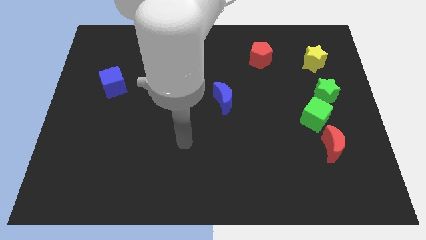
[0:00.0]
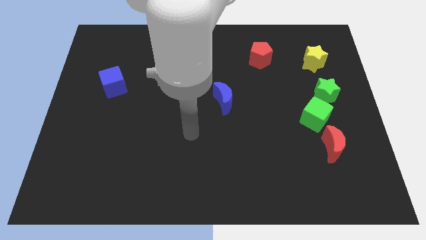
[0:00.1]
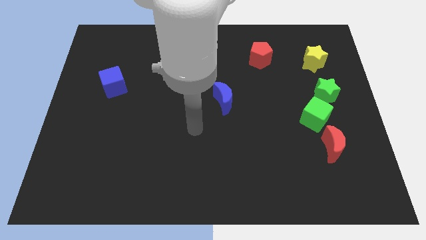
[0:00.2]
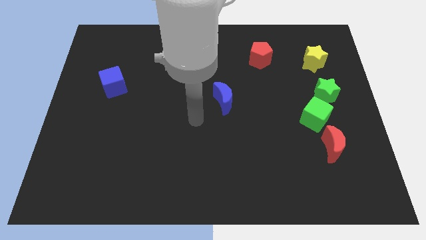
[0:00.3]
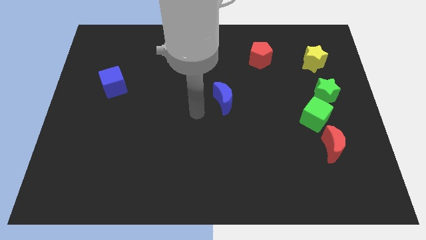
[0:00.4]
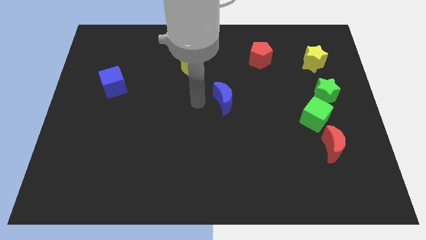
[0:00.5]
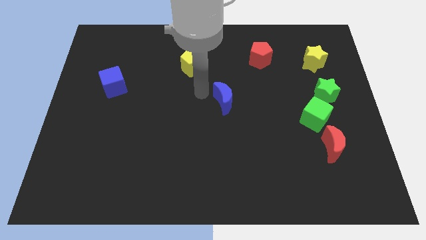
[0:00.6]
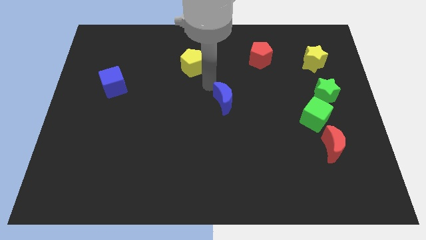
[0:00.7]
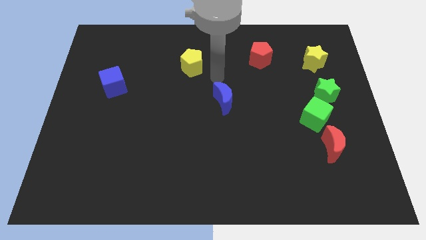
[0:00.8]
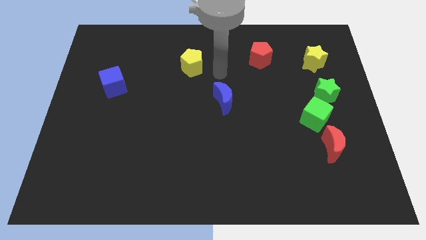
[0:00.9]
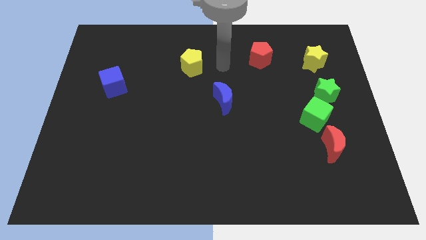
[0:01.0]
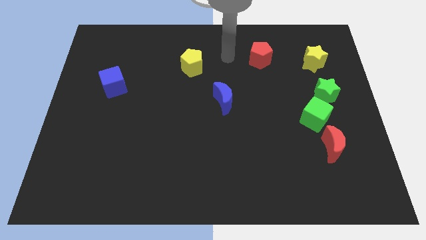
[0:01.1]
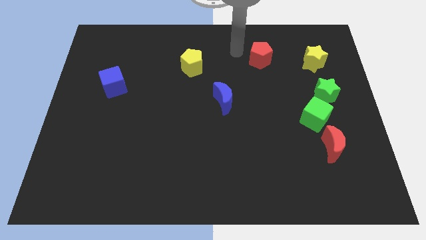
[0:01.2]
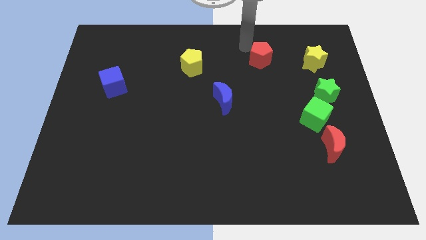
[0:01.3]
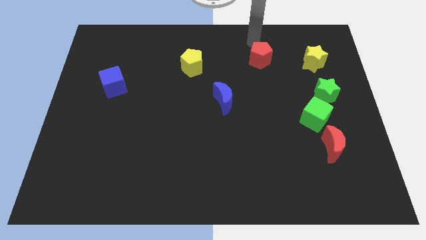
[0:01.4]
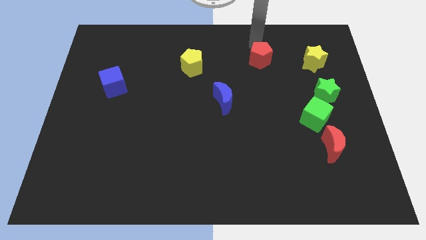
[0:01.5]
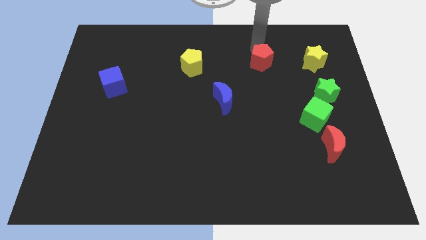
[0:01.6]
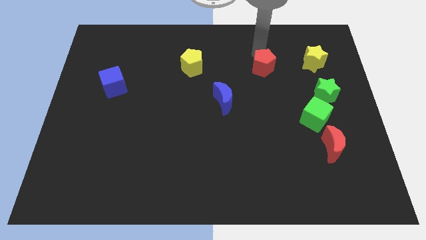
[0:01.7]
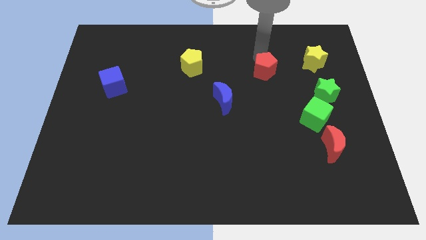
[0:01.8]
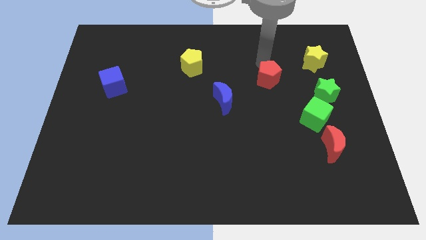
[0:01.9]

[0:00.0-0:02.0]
slide the red pentagon downwards slightly

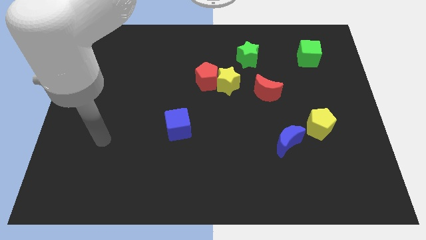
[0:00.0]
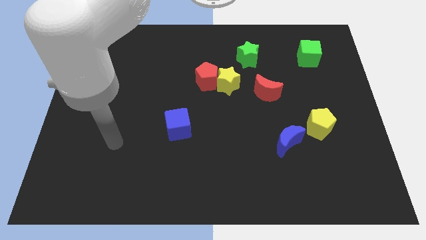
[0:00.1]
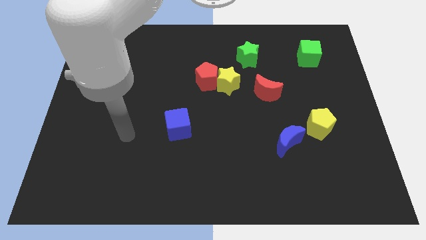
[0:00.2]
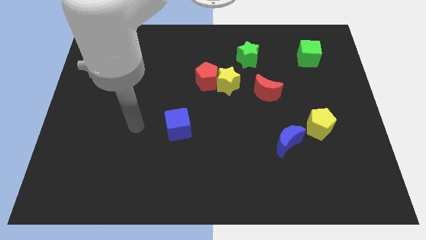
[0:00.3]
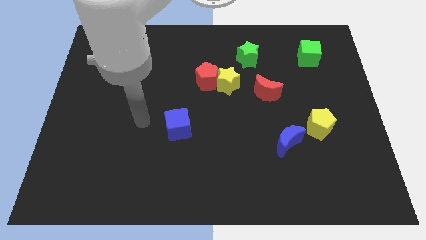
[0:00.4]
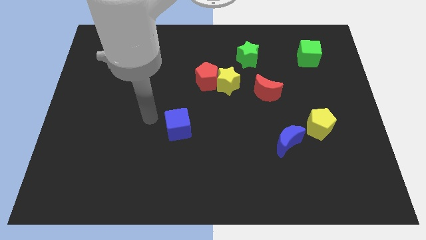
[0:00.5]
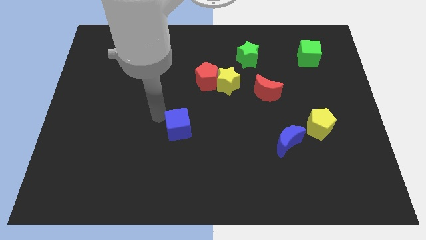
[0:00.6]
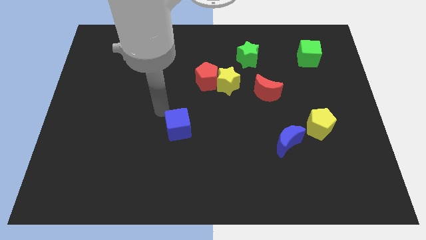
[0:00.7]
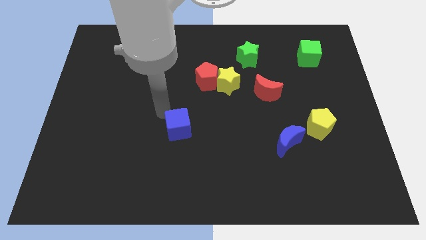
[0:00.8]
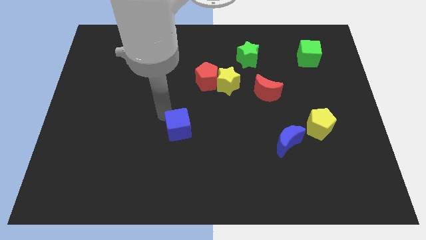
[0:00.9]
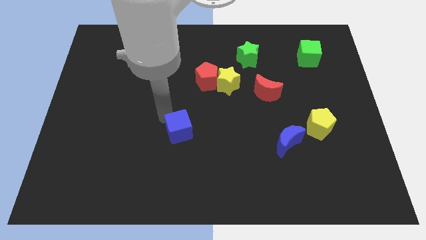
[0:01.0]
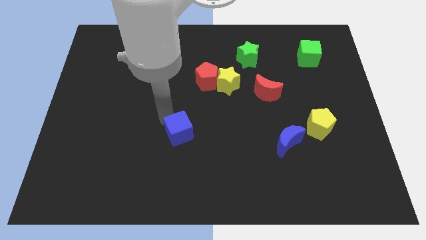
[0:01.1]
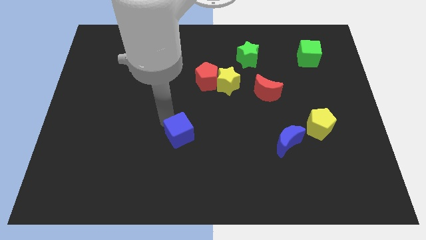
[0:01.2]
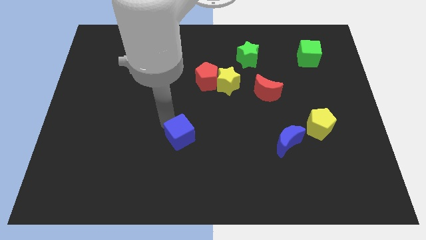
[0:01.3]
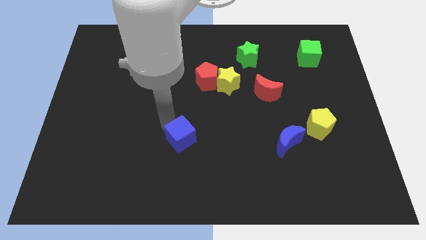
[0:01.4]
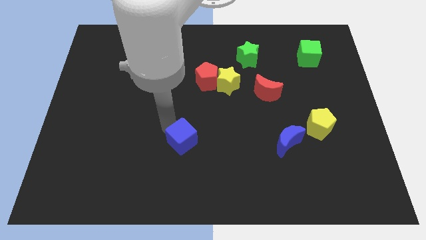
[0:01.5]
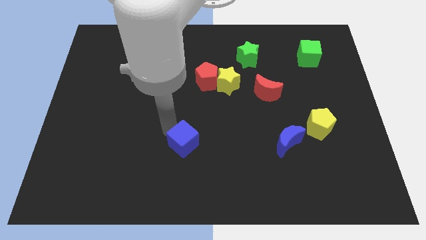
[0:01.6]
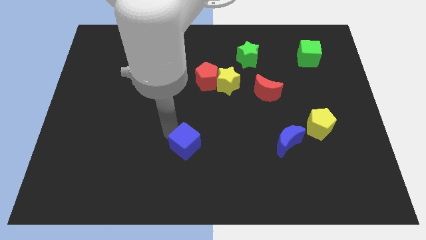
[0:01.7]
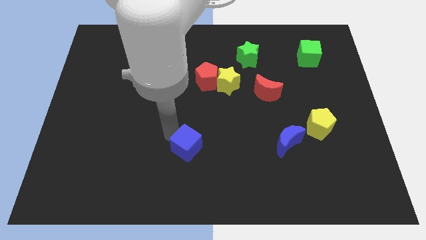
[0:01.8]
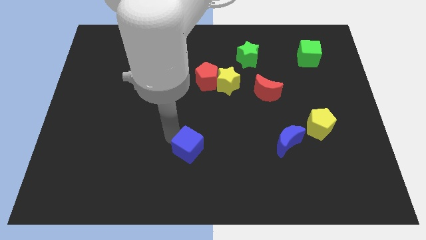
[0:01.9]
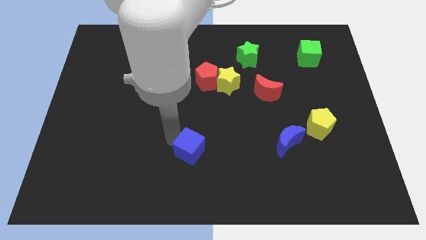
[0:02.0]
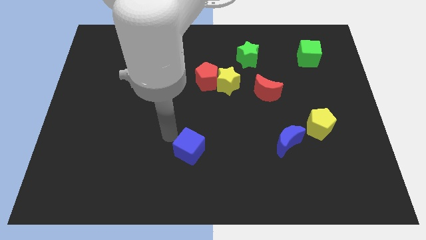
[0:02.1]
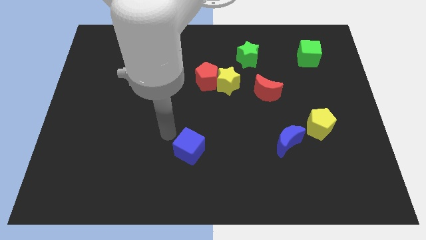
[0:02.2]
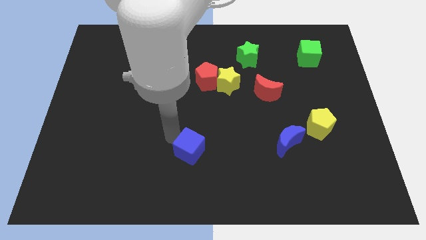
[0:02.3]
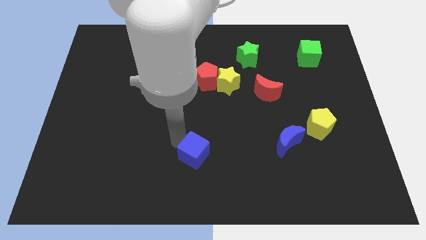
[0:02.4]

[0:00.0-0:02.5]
slightly move the blue cube diagonally downwards and right

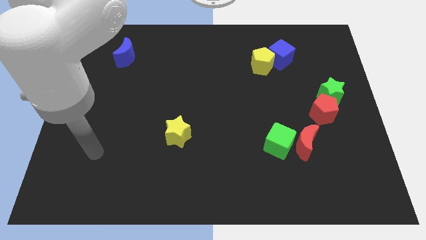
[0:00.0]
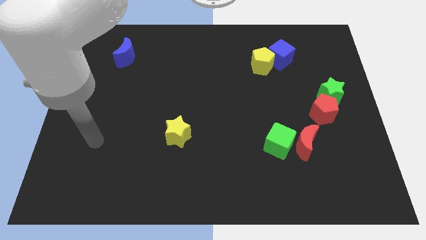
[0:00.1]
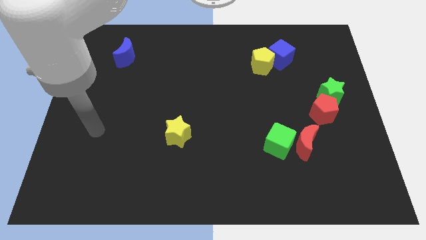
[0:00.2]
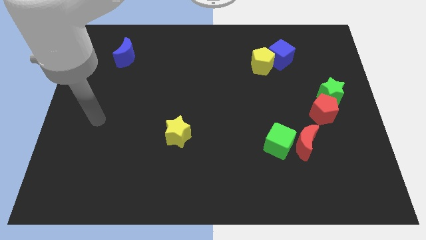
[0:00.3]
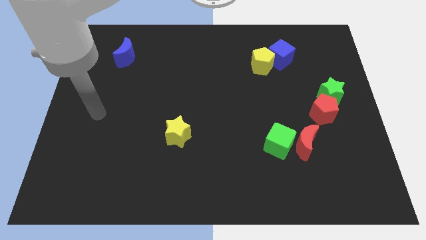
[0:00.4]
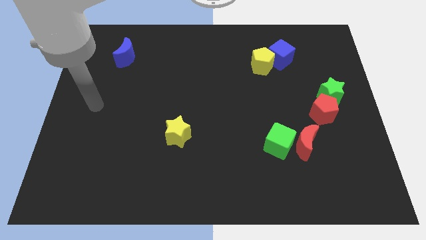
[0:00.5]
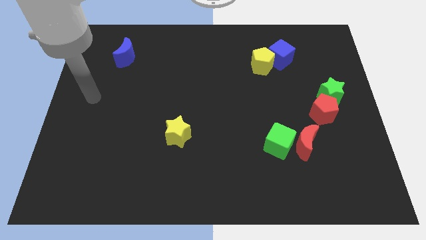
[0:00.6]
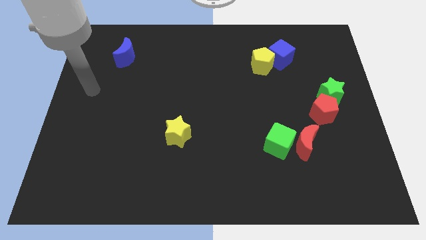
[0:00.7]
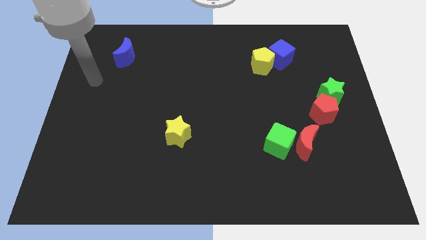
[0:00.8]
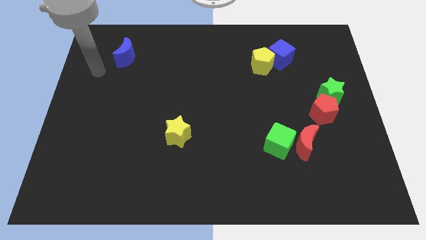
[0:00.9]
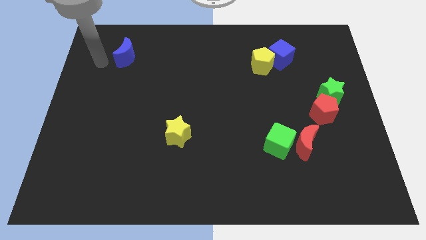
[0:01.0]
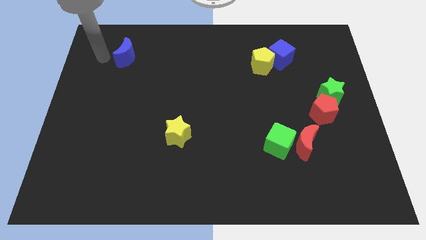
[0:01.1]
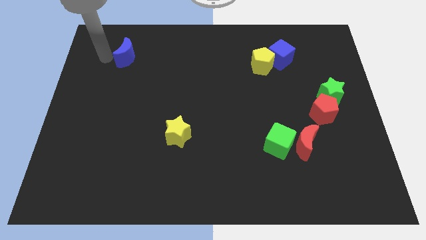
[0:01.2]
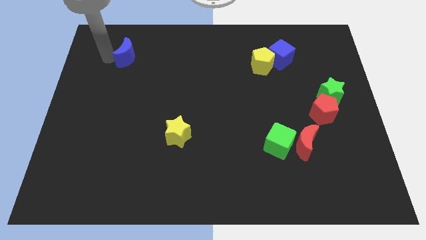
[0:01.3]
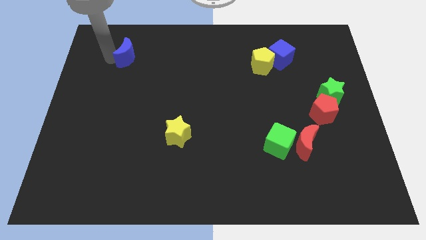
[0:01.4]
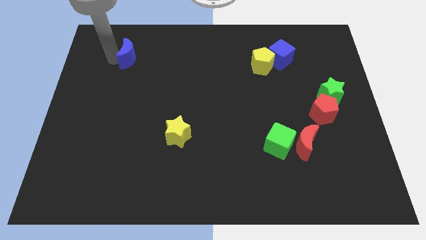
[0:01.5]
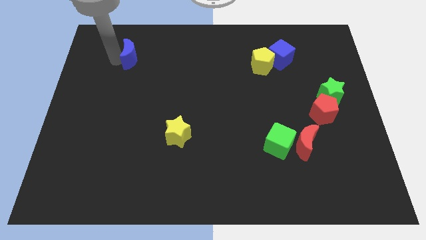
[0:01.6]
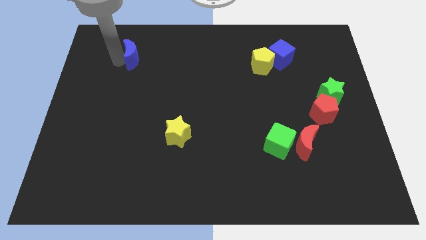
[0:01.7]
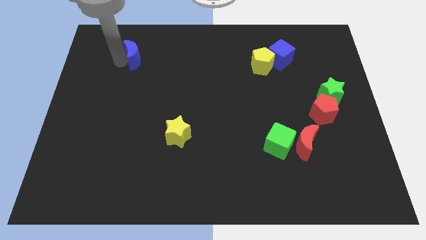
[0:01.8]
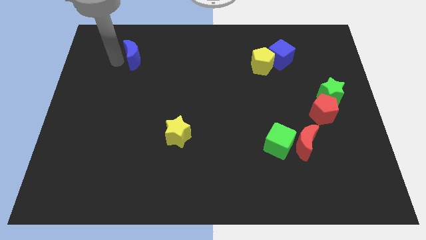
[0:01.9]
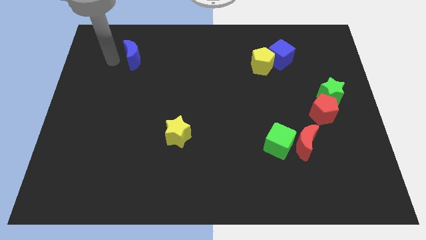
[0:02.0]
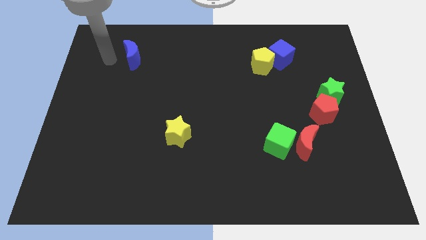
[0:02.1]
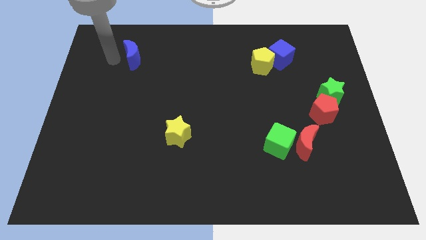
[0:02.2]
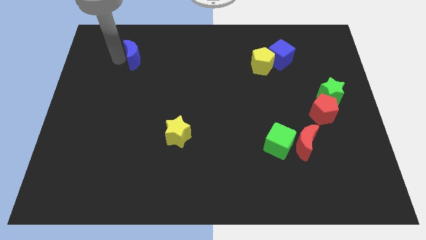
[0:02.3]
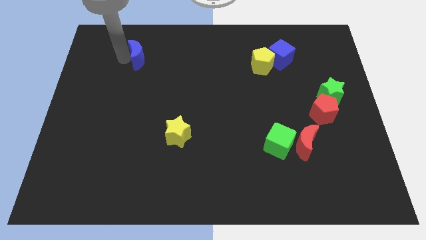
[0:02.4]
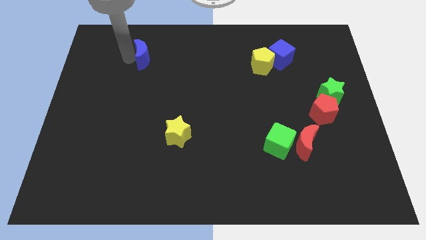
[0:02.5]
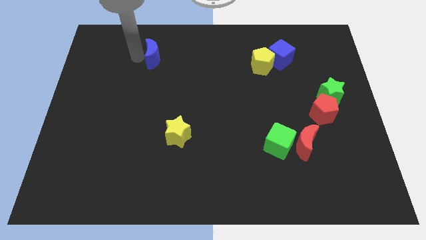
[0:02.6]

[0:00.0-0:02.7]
push the blue moon right somewhat

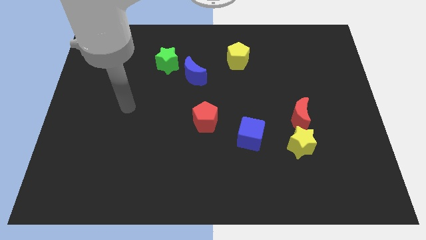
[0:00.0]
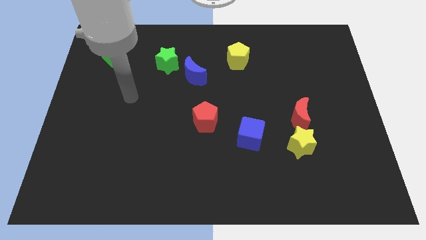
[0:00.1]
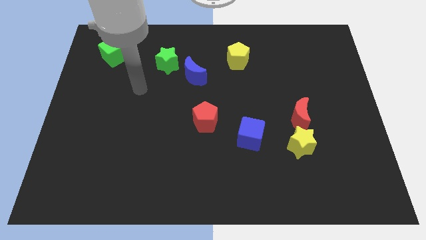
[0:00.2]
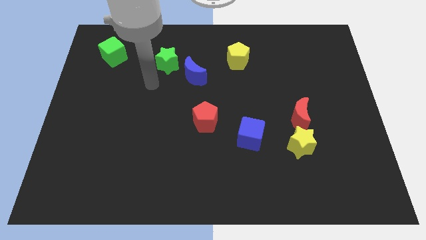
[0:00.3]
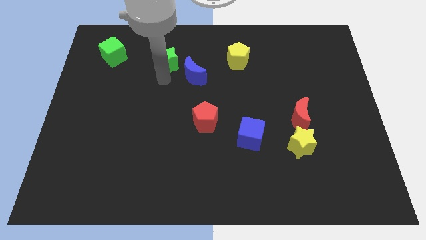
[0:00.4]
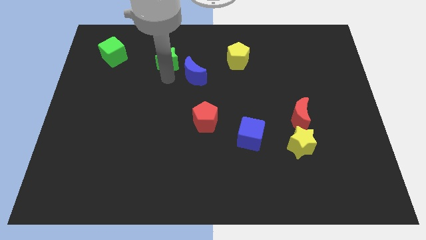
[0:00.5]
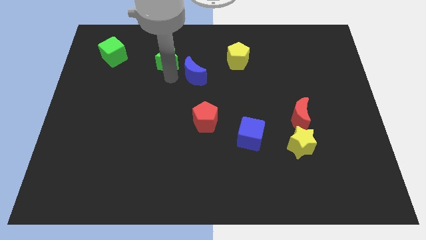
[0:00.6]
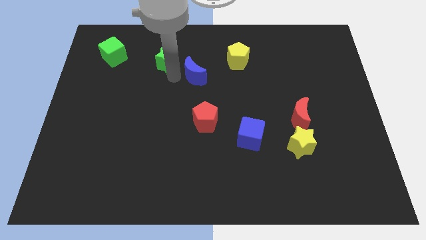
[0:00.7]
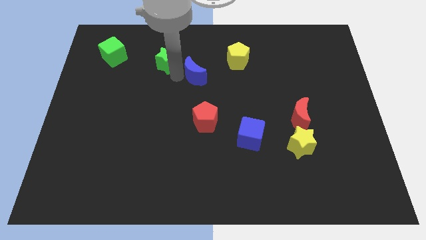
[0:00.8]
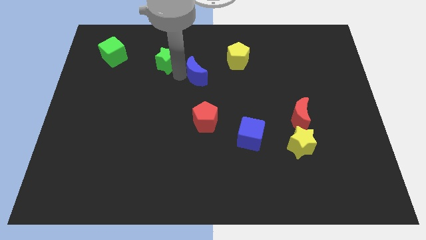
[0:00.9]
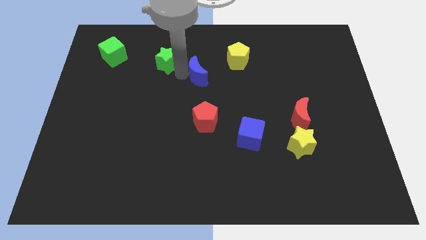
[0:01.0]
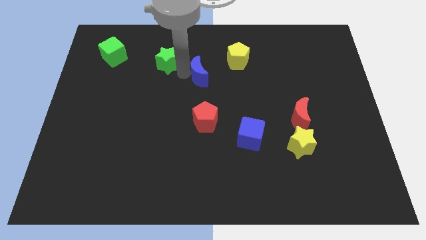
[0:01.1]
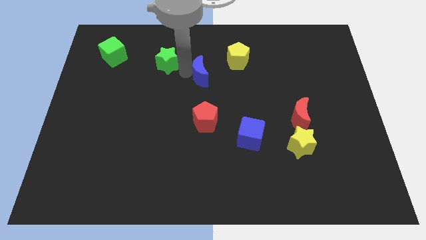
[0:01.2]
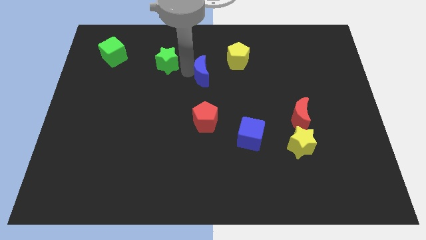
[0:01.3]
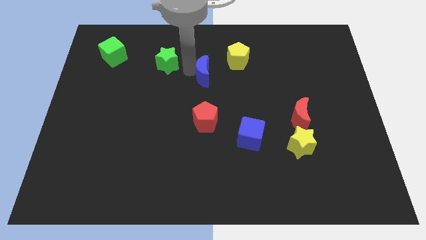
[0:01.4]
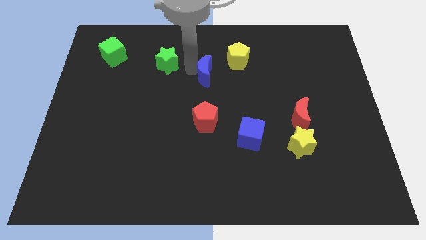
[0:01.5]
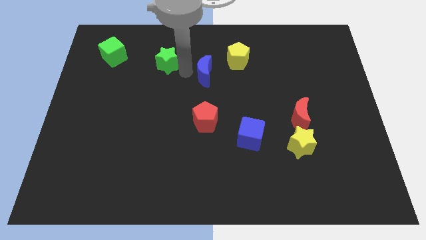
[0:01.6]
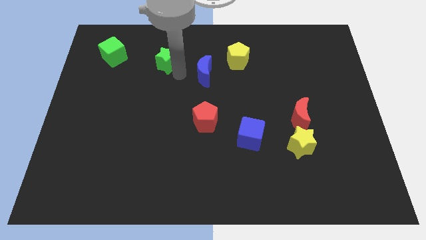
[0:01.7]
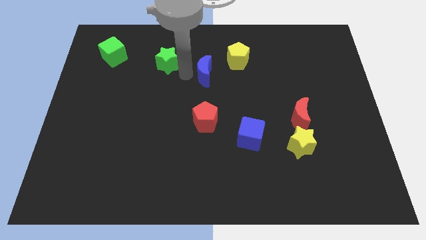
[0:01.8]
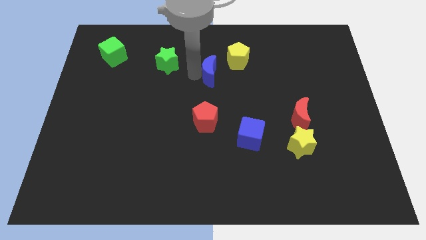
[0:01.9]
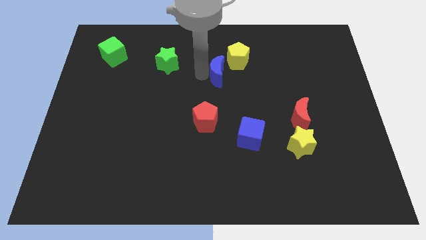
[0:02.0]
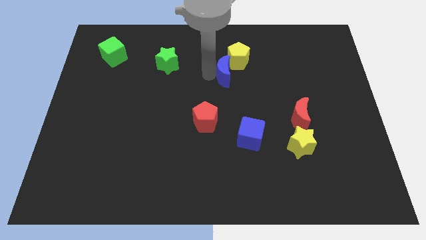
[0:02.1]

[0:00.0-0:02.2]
push the blue moon a bit right
